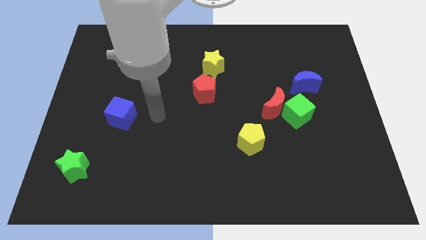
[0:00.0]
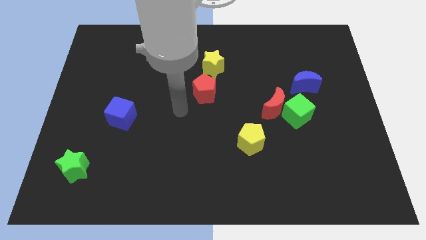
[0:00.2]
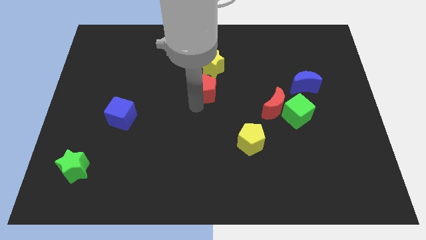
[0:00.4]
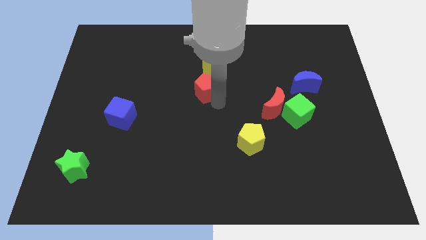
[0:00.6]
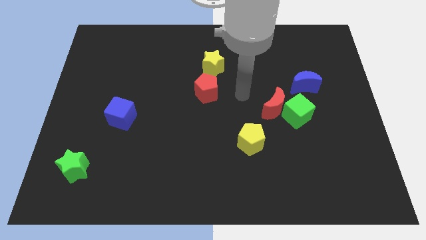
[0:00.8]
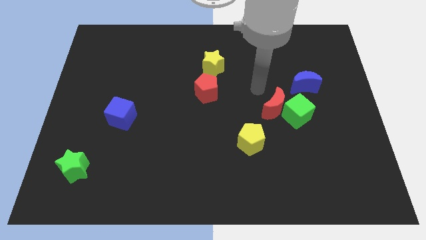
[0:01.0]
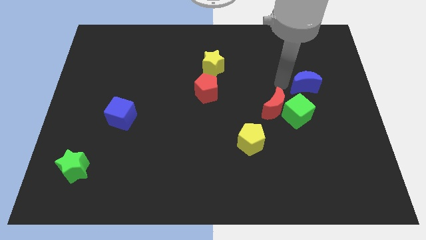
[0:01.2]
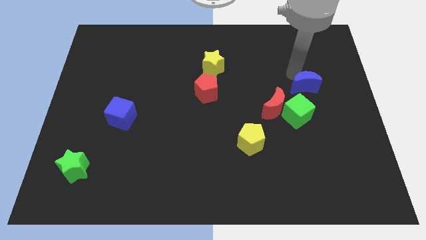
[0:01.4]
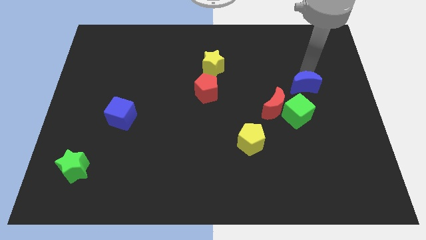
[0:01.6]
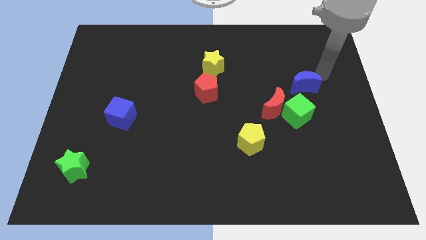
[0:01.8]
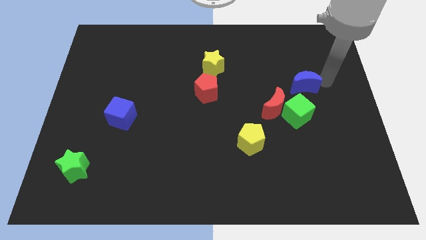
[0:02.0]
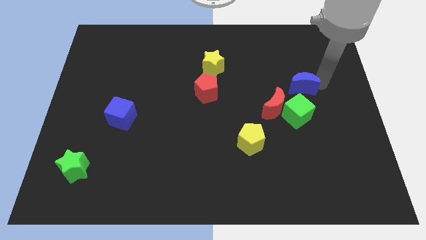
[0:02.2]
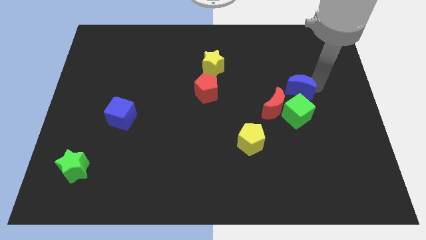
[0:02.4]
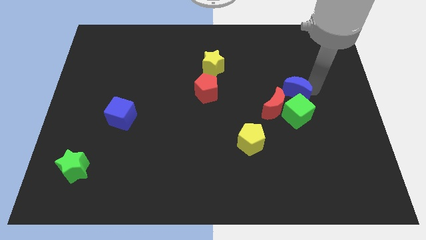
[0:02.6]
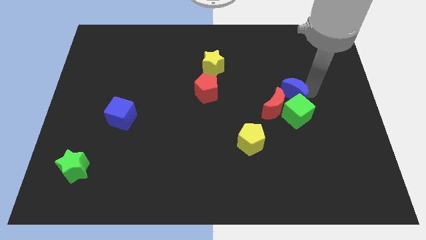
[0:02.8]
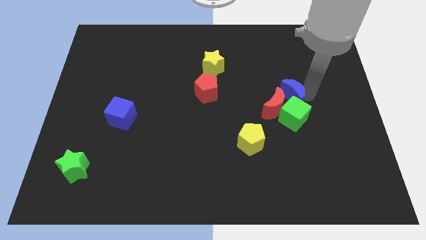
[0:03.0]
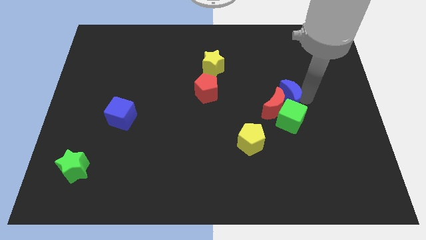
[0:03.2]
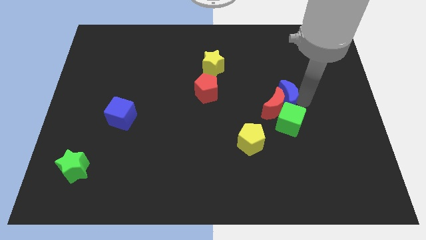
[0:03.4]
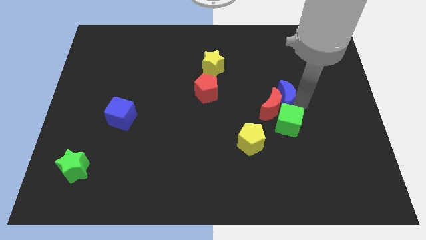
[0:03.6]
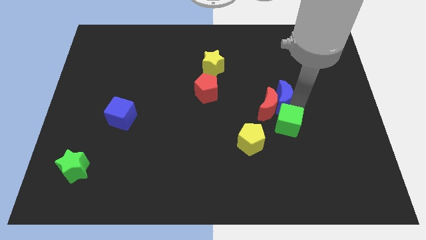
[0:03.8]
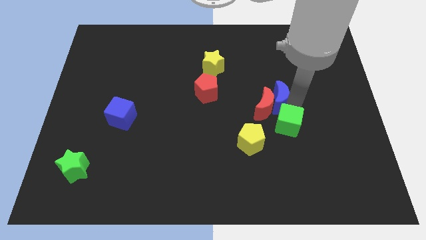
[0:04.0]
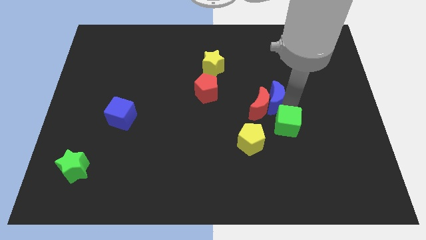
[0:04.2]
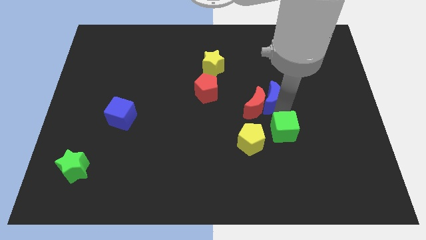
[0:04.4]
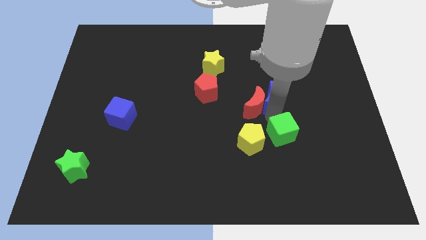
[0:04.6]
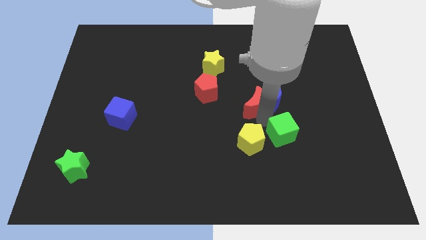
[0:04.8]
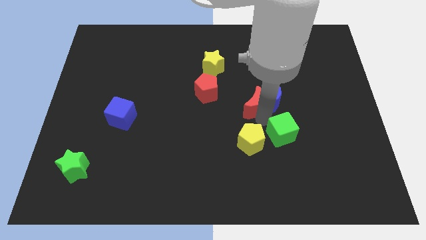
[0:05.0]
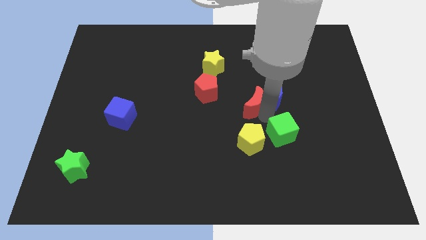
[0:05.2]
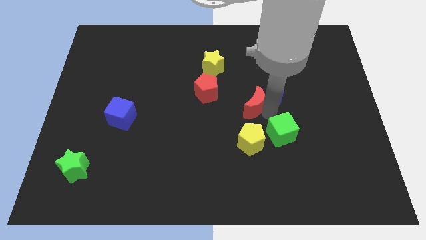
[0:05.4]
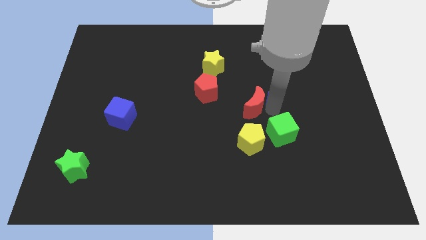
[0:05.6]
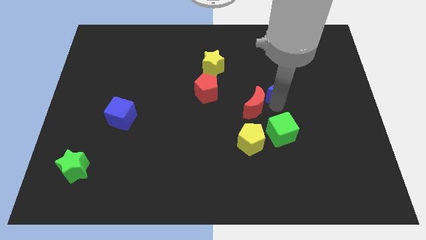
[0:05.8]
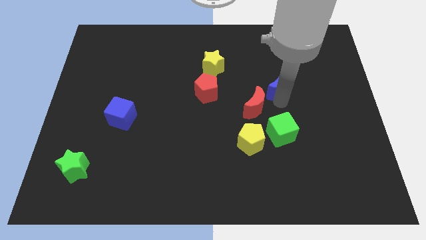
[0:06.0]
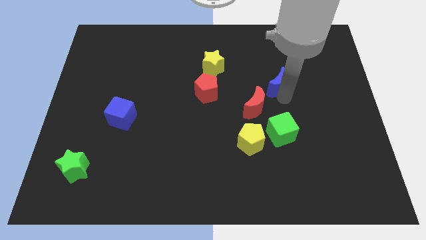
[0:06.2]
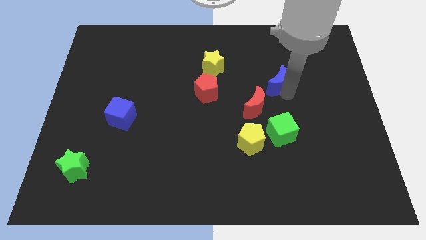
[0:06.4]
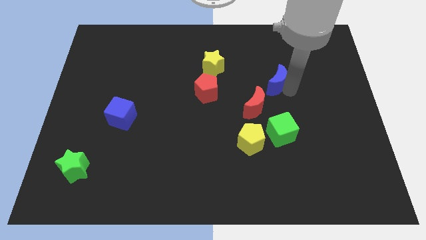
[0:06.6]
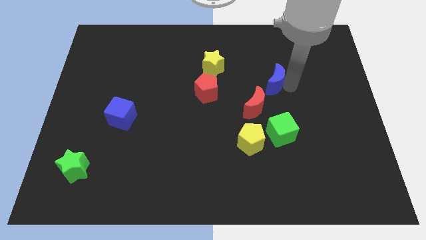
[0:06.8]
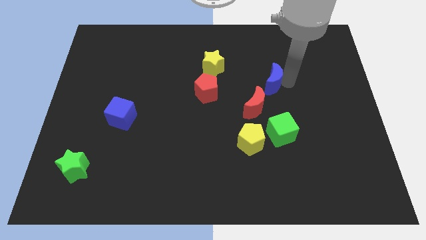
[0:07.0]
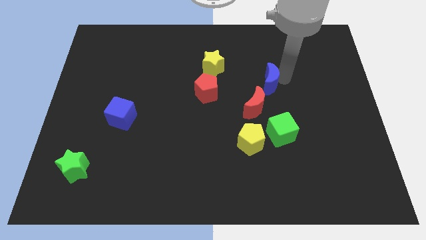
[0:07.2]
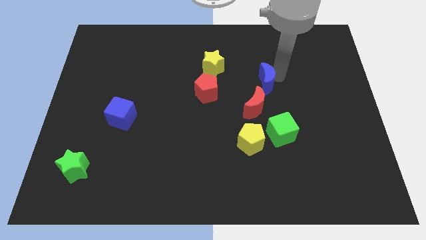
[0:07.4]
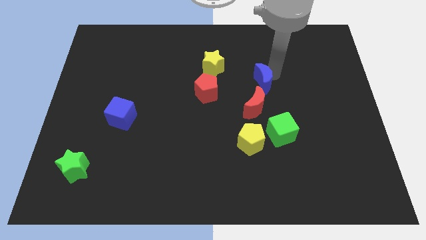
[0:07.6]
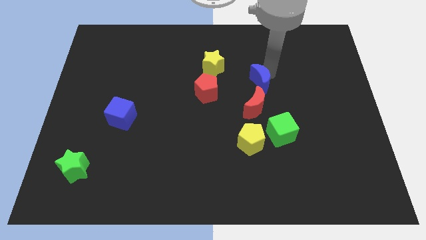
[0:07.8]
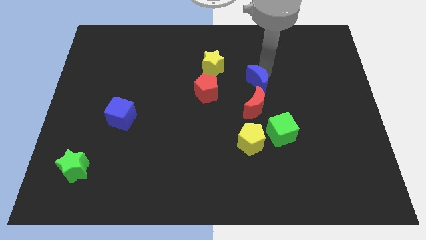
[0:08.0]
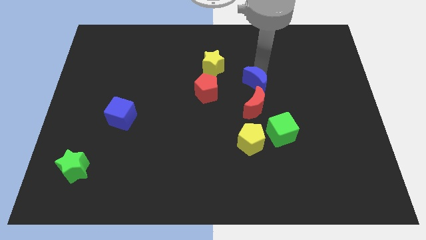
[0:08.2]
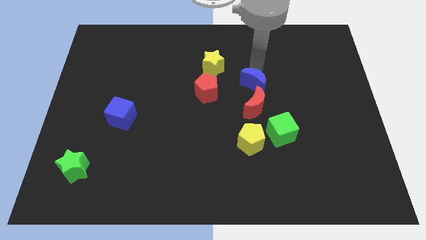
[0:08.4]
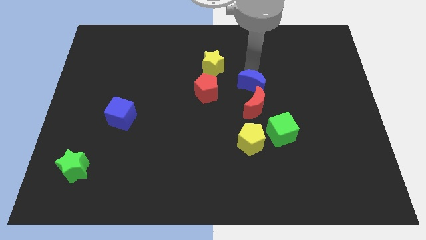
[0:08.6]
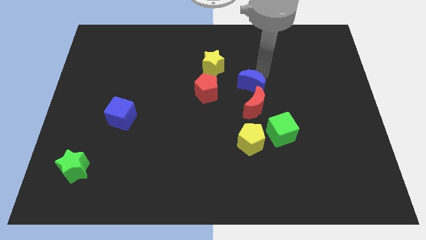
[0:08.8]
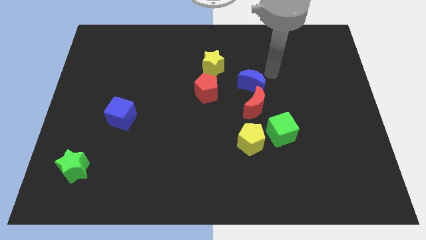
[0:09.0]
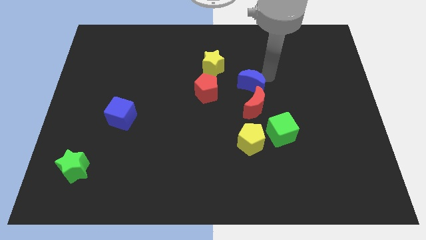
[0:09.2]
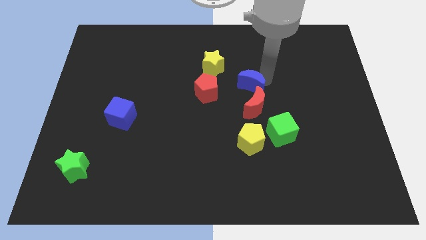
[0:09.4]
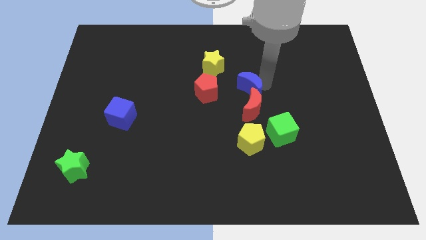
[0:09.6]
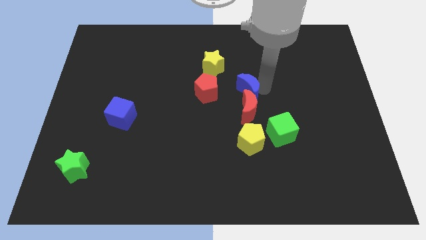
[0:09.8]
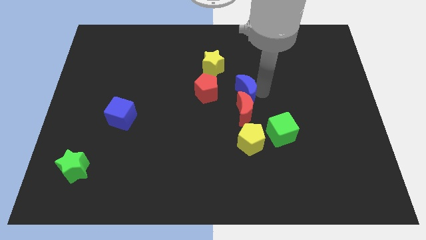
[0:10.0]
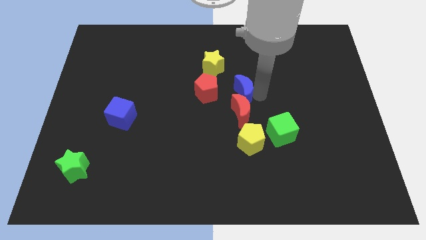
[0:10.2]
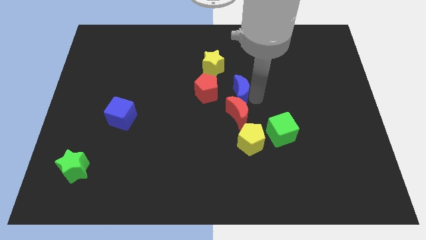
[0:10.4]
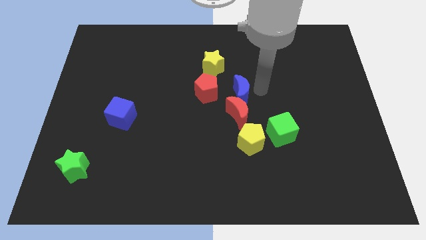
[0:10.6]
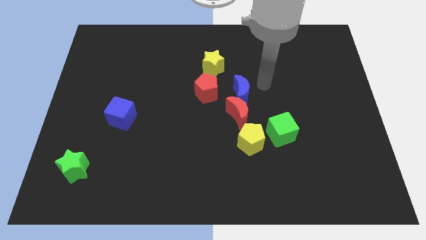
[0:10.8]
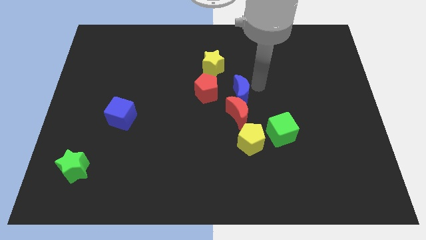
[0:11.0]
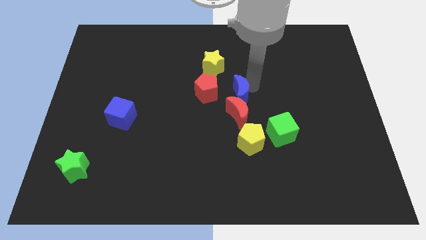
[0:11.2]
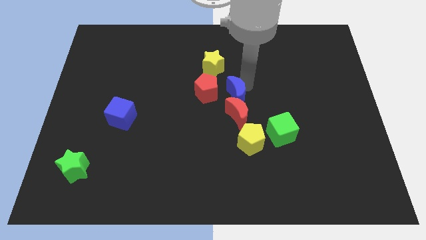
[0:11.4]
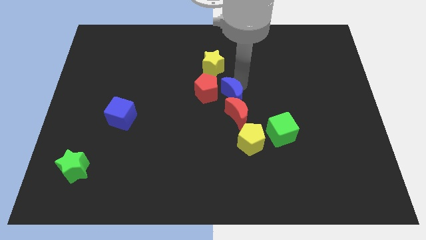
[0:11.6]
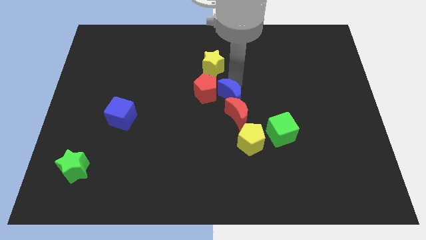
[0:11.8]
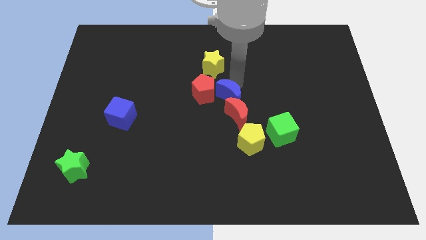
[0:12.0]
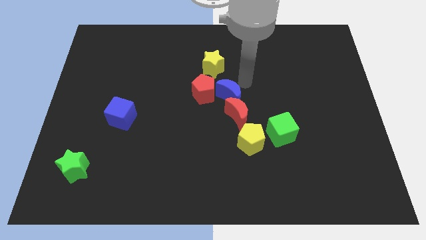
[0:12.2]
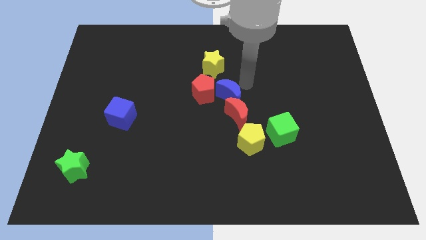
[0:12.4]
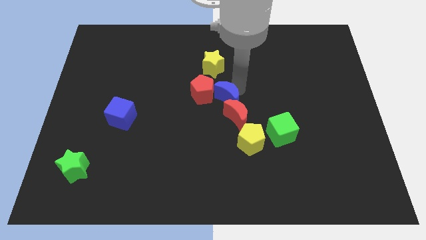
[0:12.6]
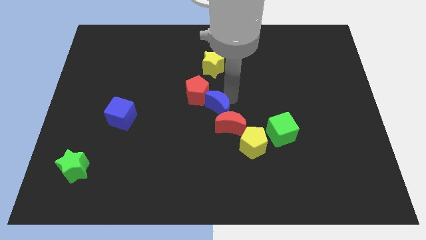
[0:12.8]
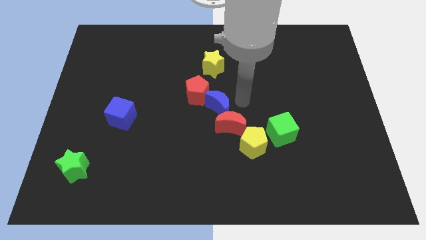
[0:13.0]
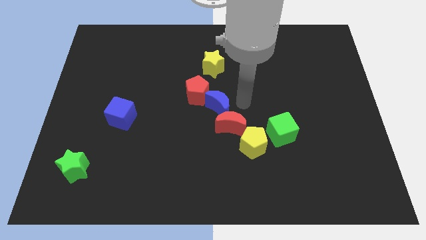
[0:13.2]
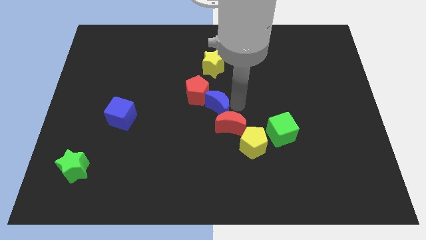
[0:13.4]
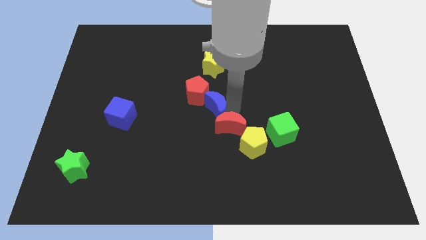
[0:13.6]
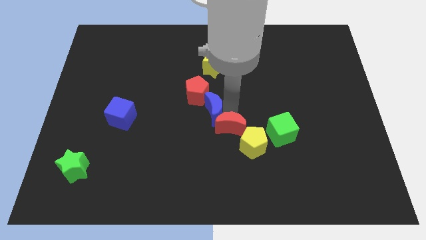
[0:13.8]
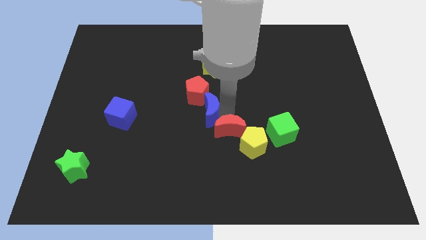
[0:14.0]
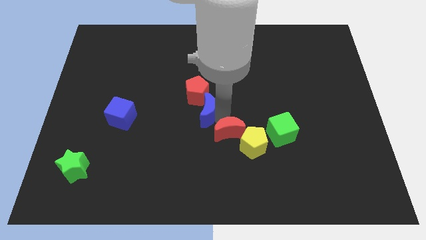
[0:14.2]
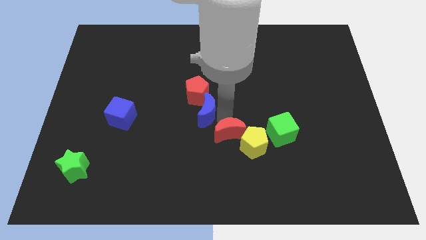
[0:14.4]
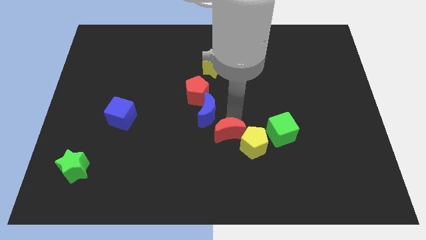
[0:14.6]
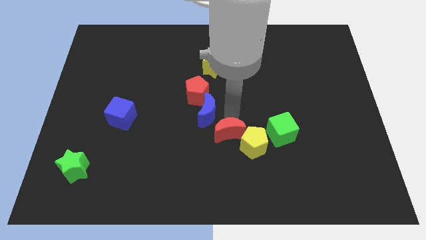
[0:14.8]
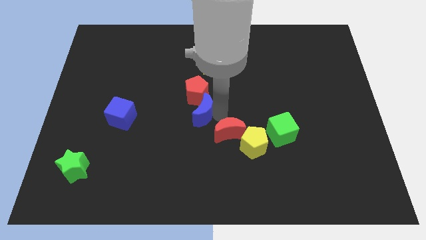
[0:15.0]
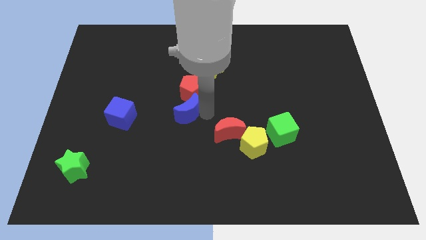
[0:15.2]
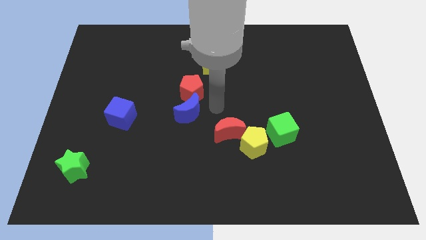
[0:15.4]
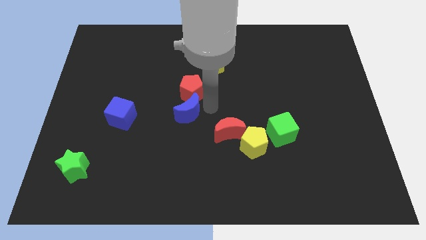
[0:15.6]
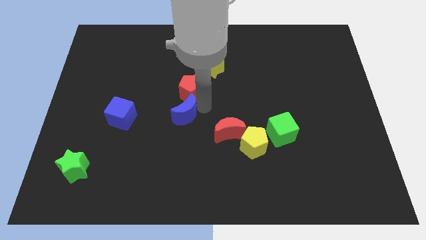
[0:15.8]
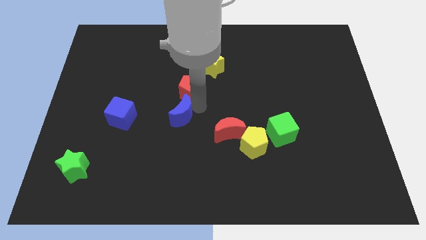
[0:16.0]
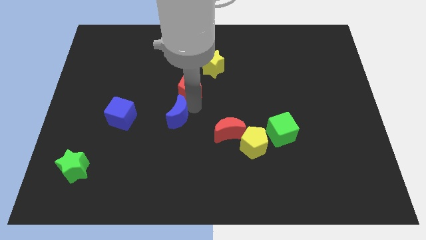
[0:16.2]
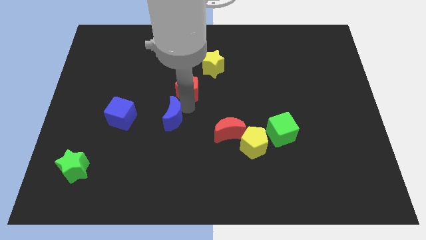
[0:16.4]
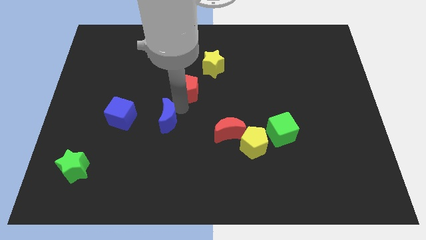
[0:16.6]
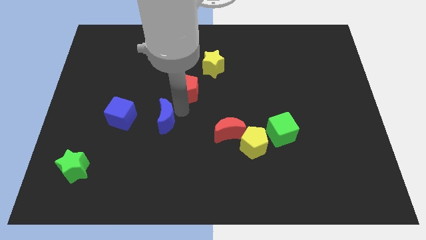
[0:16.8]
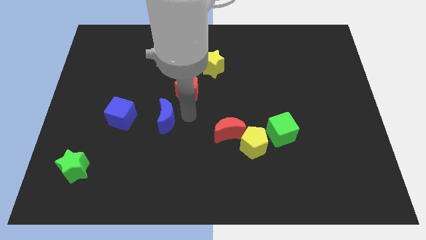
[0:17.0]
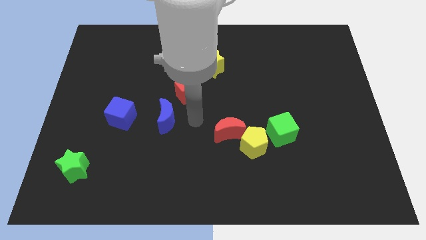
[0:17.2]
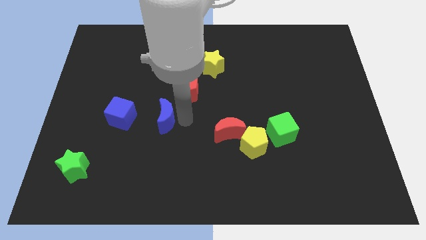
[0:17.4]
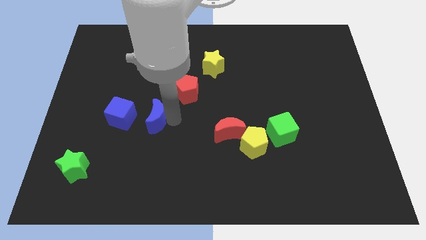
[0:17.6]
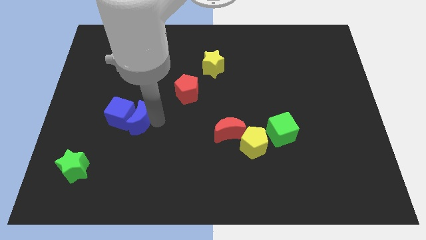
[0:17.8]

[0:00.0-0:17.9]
put the blue moon next to the blue cube
